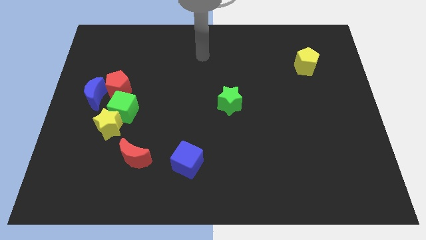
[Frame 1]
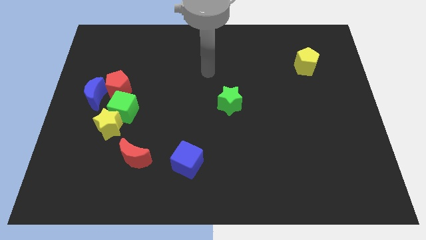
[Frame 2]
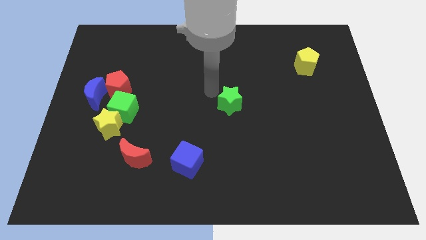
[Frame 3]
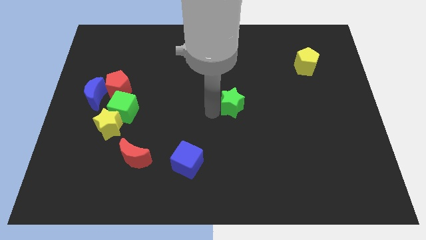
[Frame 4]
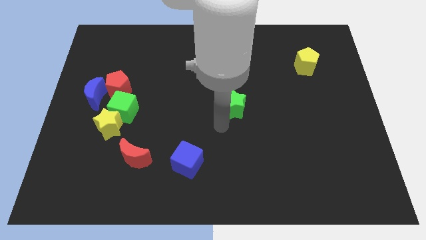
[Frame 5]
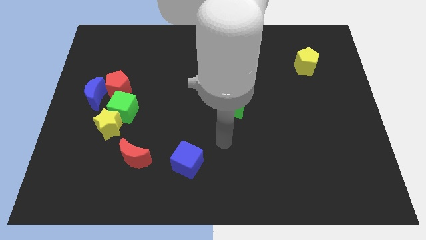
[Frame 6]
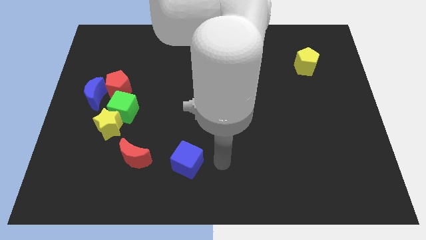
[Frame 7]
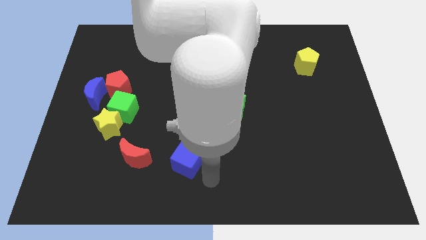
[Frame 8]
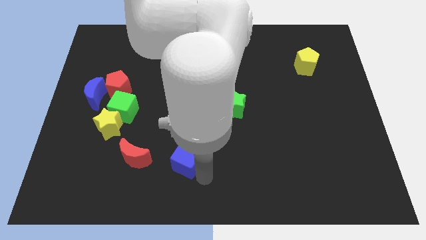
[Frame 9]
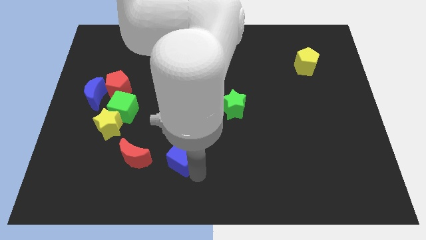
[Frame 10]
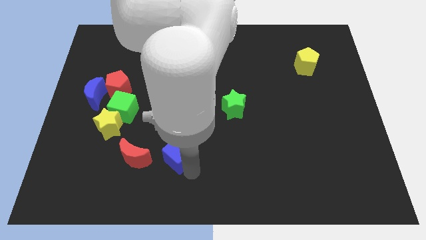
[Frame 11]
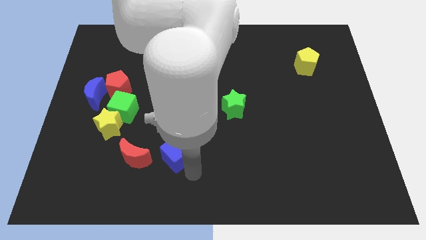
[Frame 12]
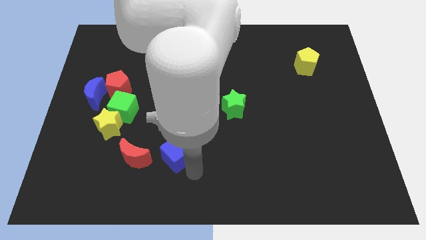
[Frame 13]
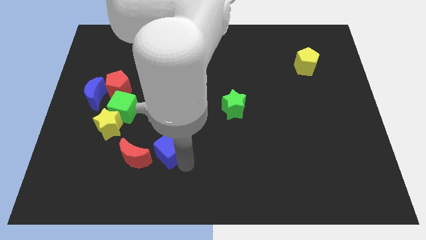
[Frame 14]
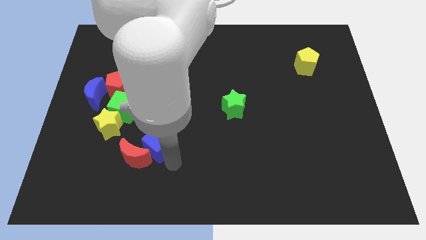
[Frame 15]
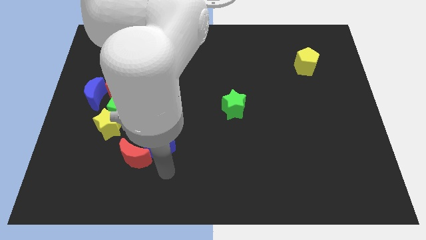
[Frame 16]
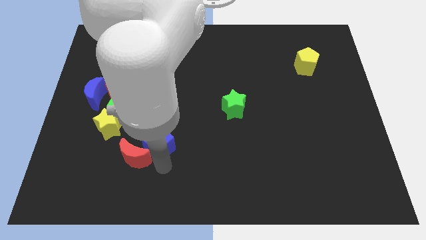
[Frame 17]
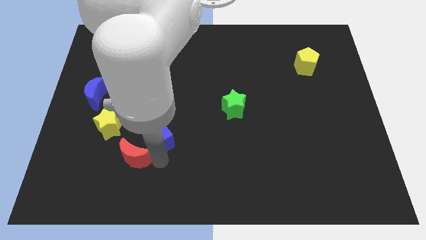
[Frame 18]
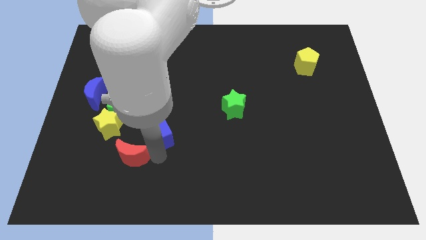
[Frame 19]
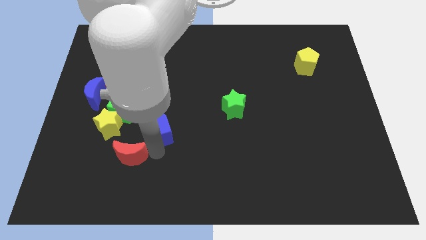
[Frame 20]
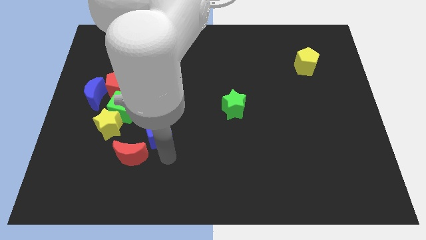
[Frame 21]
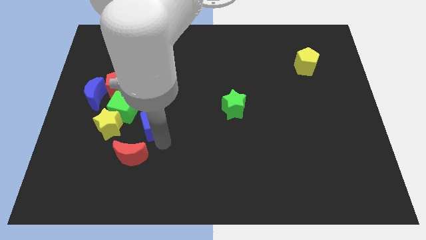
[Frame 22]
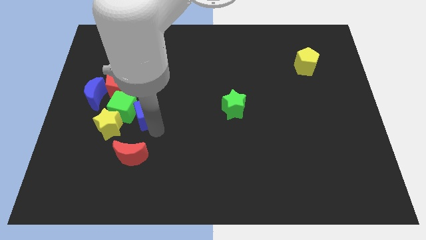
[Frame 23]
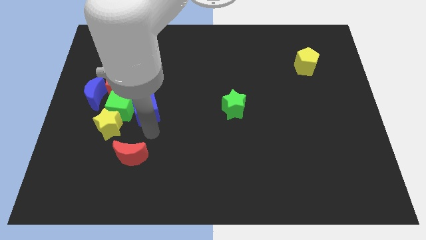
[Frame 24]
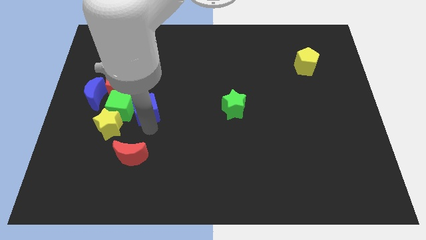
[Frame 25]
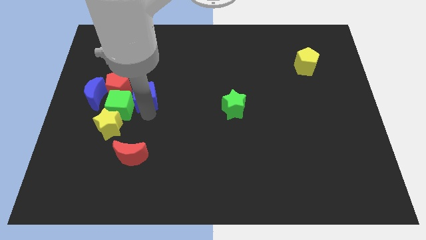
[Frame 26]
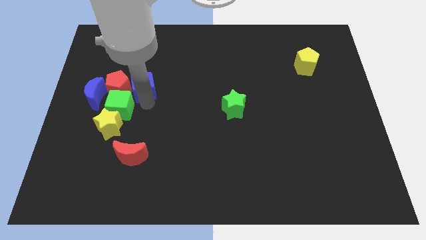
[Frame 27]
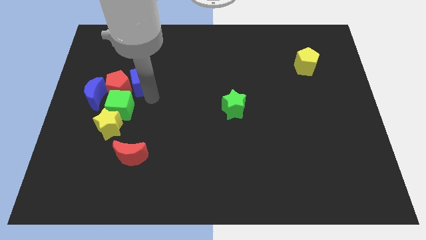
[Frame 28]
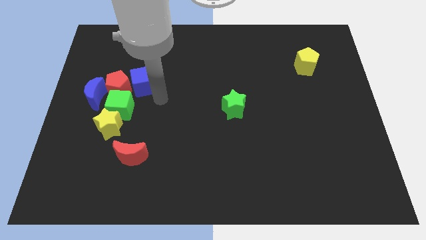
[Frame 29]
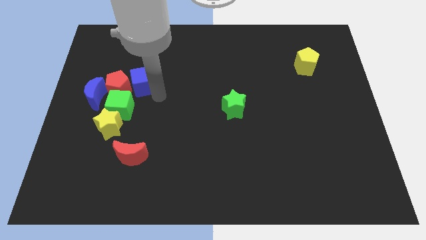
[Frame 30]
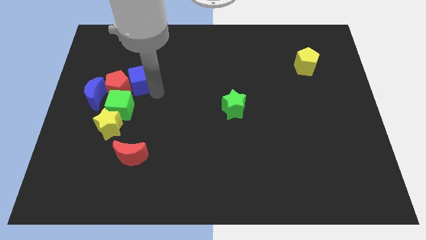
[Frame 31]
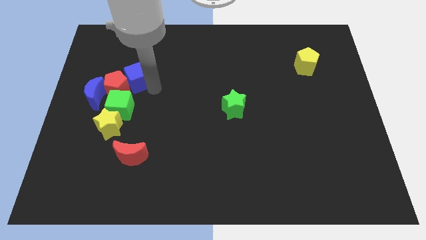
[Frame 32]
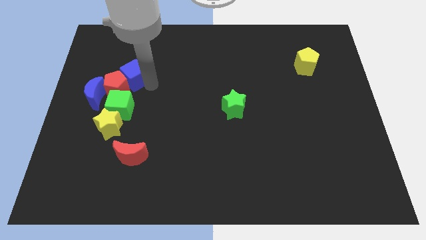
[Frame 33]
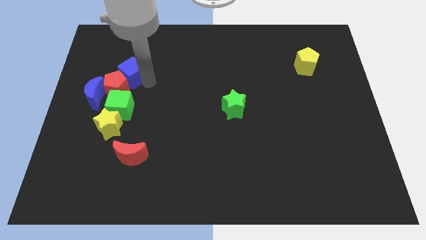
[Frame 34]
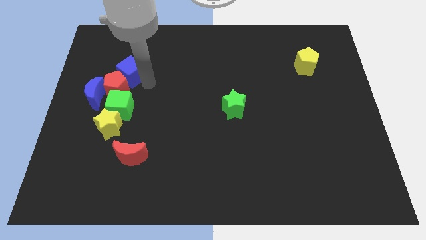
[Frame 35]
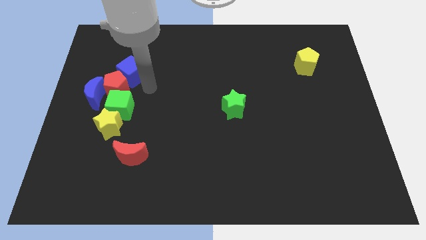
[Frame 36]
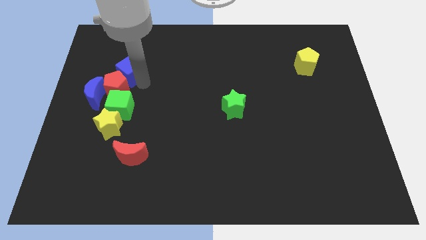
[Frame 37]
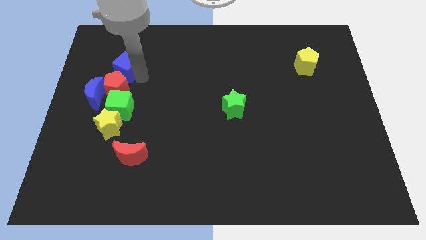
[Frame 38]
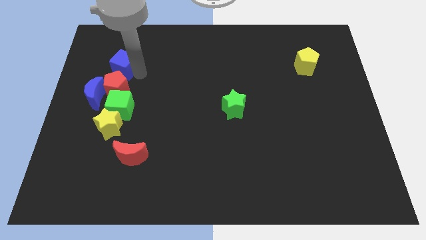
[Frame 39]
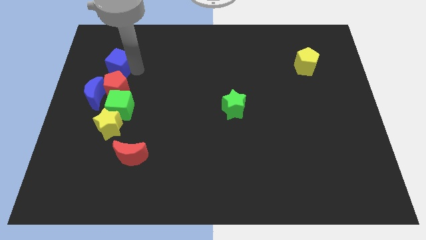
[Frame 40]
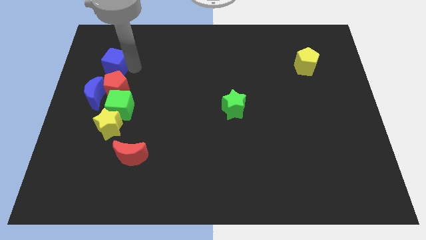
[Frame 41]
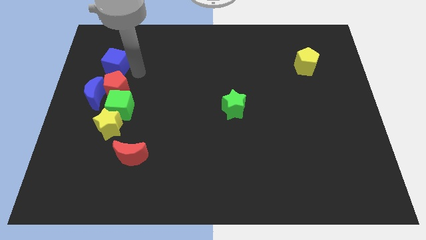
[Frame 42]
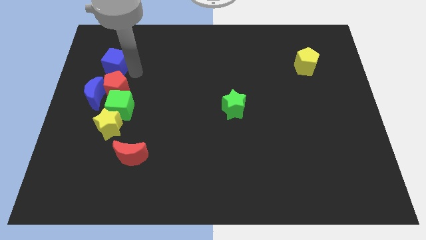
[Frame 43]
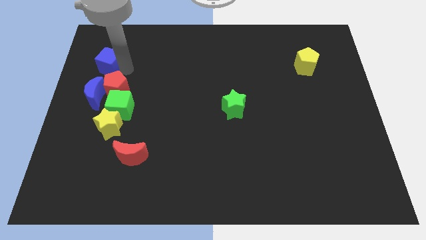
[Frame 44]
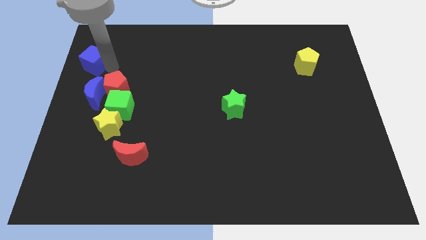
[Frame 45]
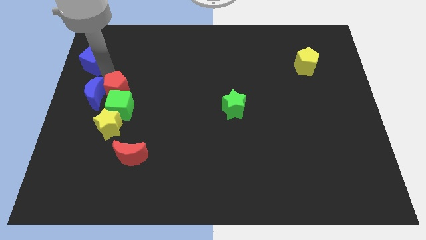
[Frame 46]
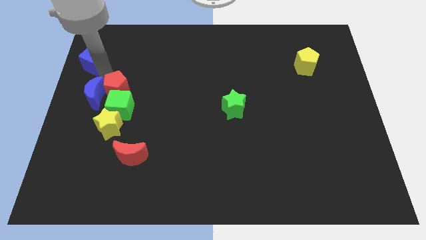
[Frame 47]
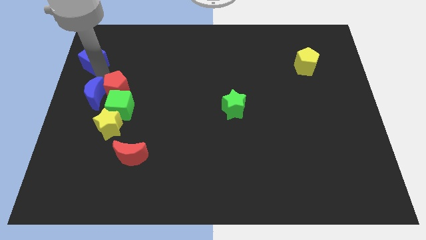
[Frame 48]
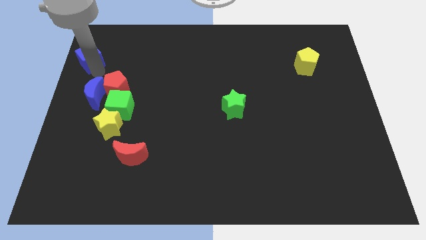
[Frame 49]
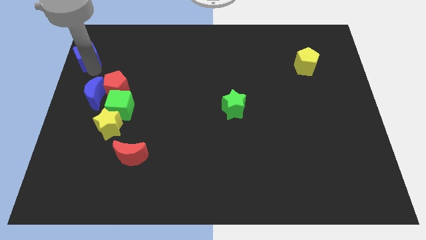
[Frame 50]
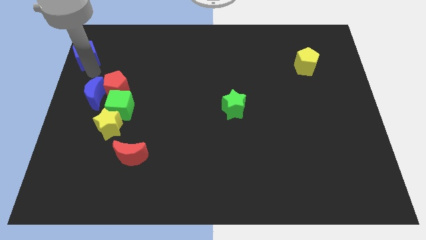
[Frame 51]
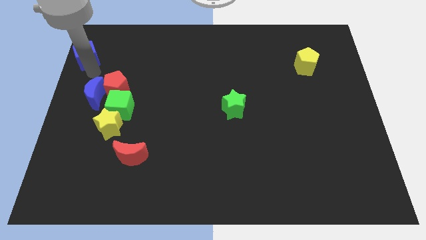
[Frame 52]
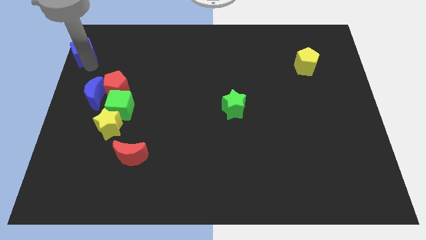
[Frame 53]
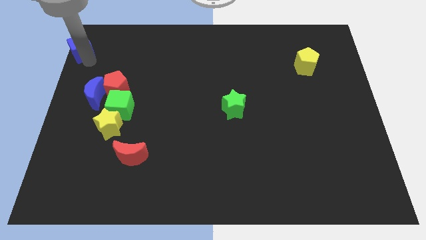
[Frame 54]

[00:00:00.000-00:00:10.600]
move the blue cube to the top left of the board

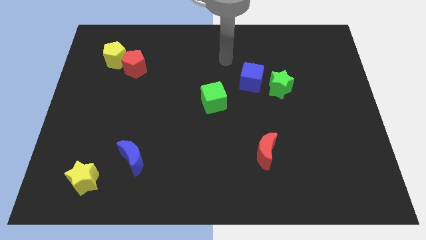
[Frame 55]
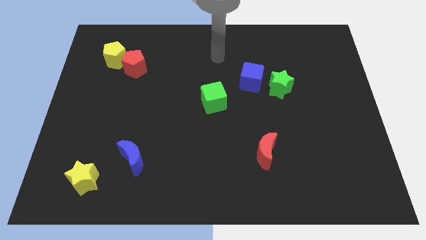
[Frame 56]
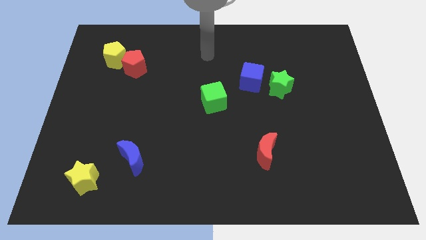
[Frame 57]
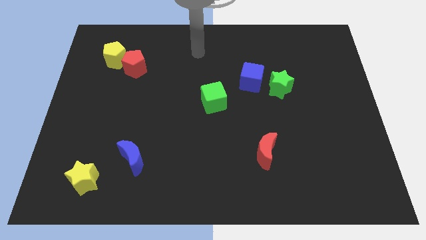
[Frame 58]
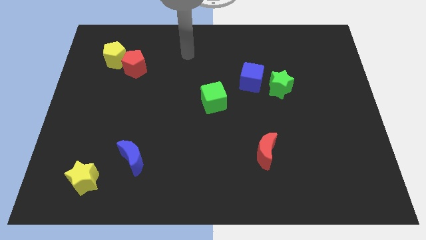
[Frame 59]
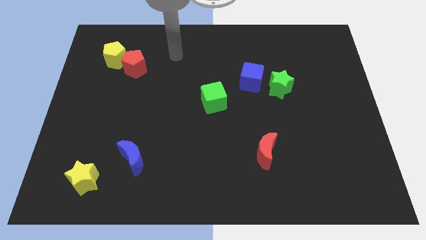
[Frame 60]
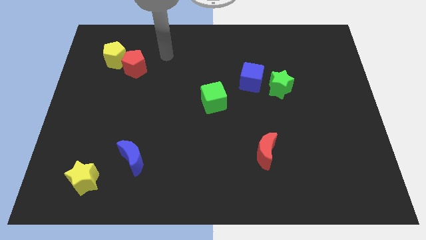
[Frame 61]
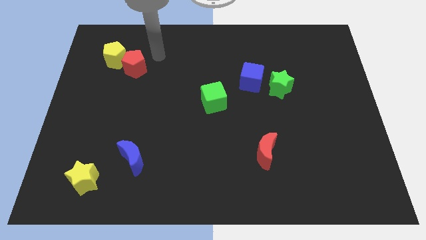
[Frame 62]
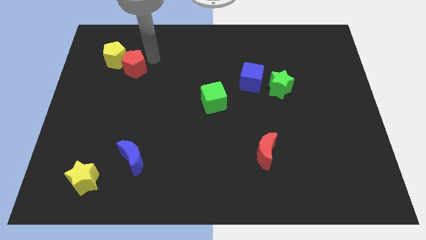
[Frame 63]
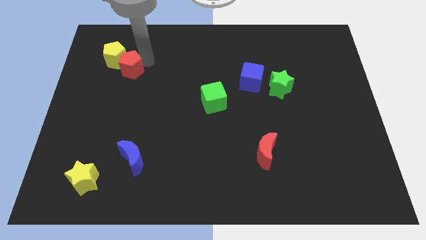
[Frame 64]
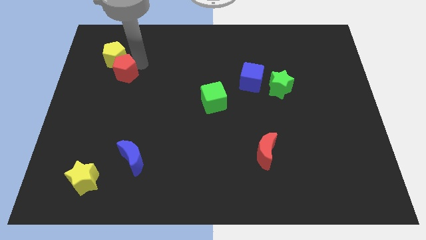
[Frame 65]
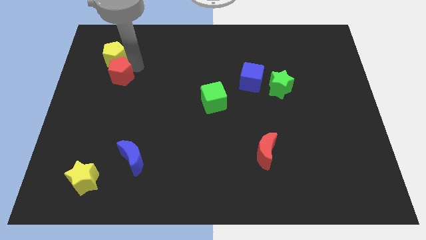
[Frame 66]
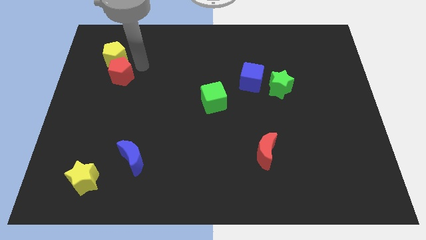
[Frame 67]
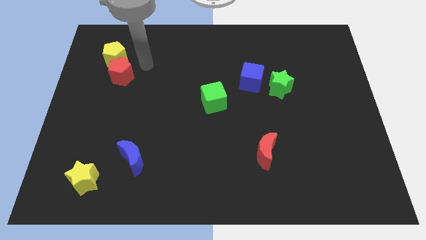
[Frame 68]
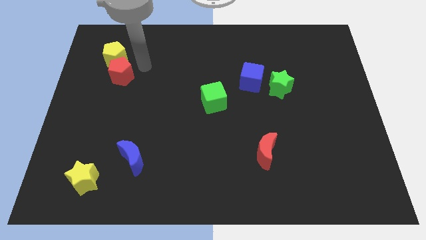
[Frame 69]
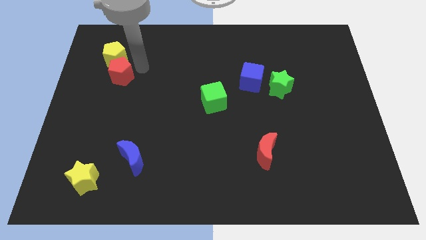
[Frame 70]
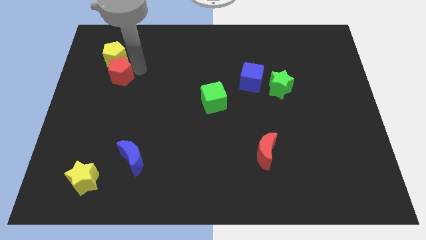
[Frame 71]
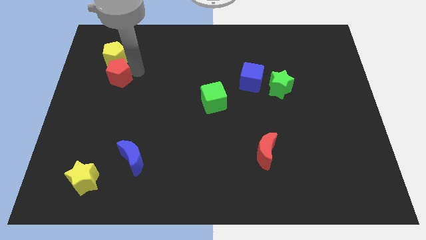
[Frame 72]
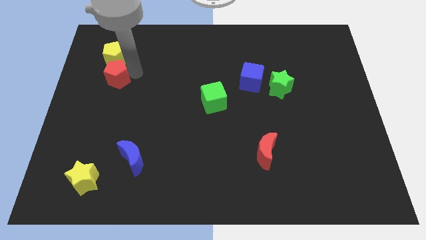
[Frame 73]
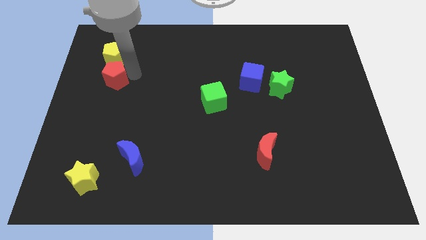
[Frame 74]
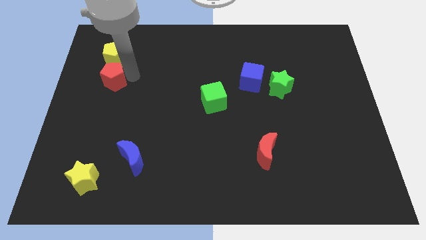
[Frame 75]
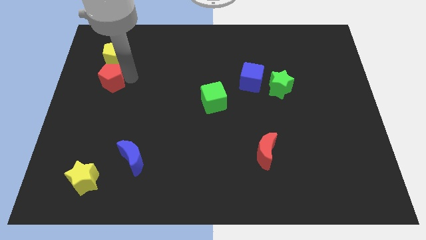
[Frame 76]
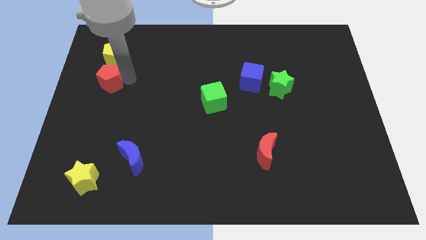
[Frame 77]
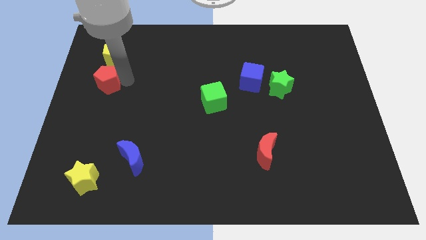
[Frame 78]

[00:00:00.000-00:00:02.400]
move the red pentagon to the left side of the board
